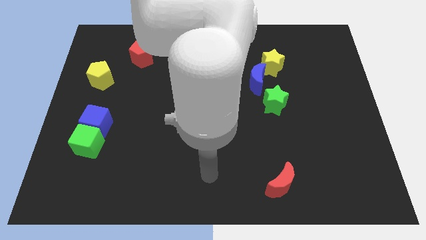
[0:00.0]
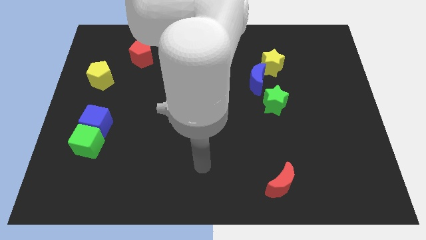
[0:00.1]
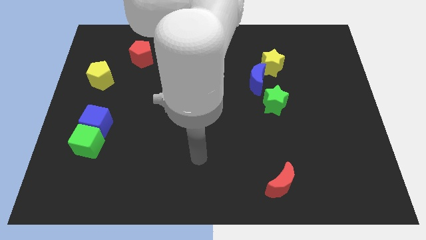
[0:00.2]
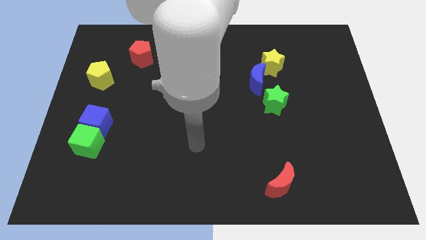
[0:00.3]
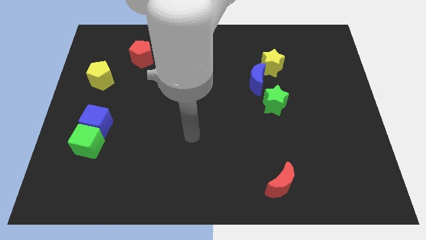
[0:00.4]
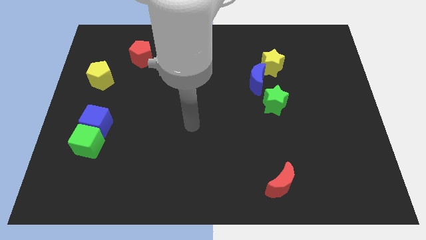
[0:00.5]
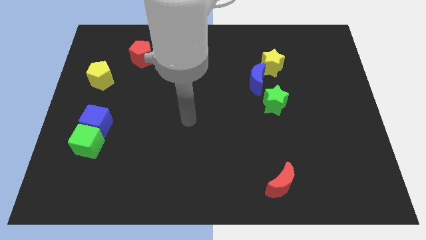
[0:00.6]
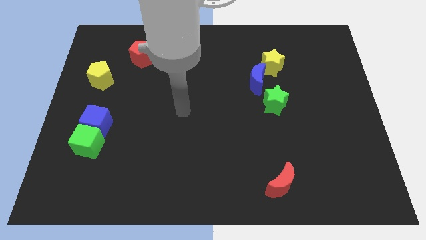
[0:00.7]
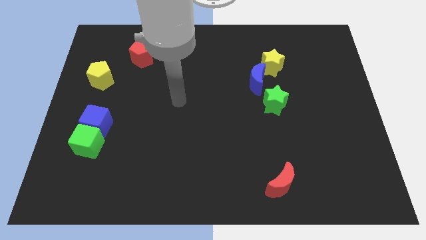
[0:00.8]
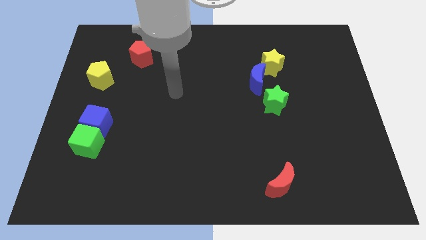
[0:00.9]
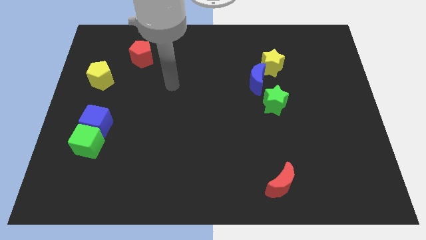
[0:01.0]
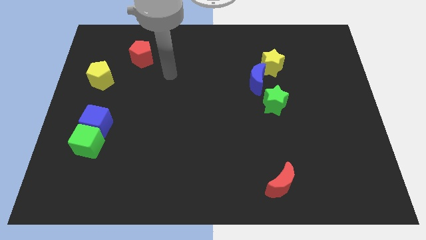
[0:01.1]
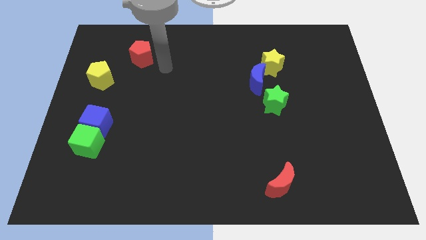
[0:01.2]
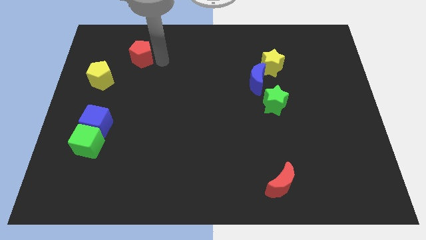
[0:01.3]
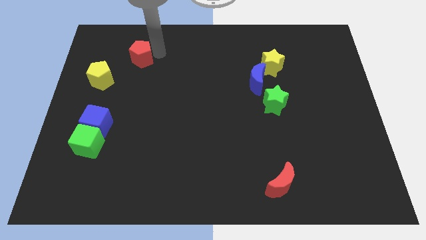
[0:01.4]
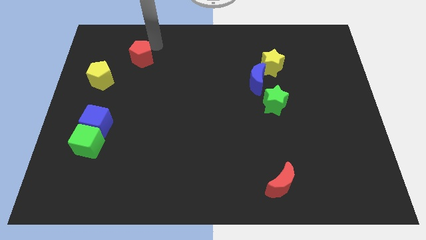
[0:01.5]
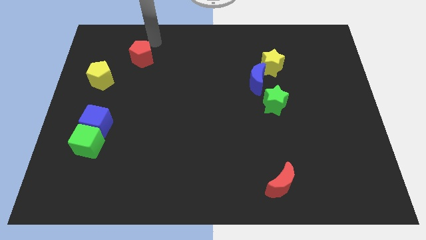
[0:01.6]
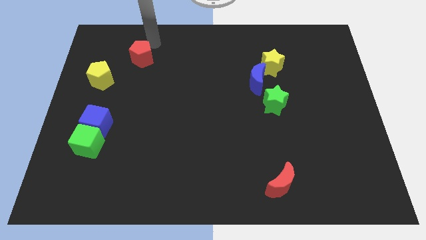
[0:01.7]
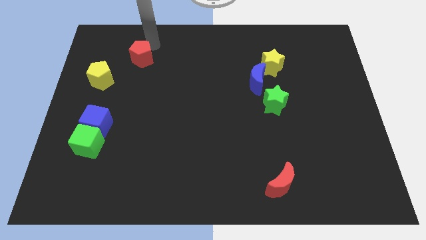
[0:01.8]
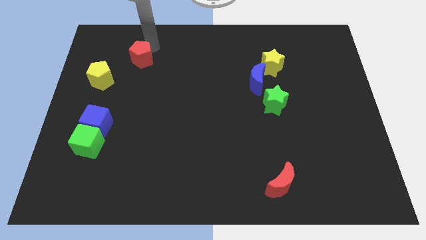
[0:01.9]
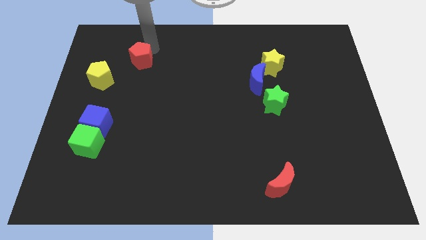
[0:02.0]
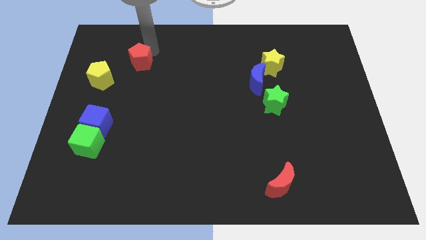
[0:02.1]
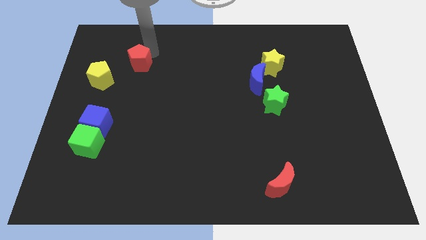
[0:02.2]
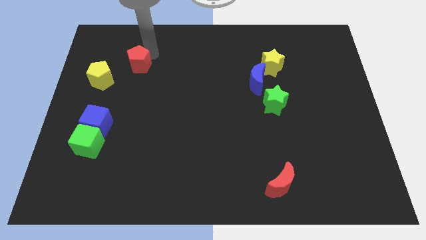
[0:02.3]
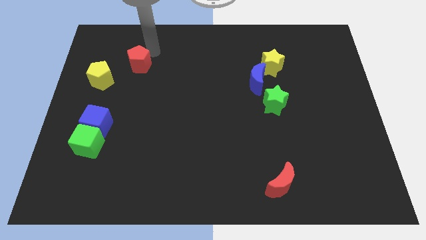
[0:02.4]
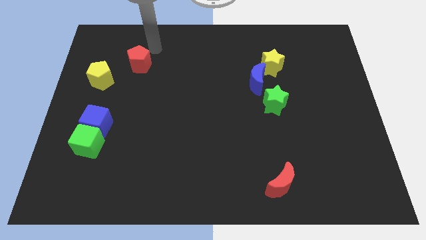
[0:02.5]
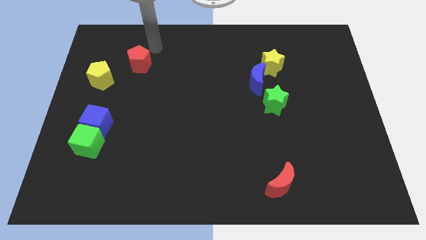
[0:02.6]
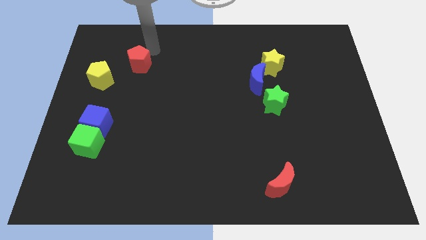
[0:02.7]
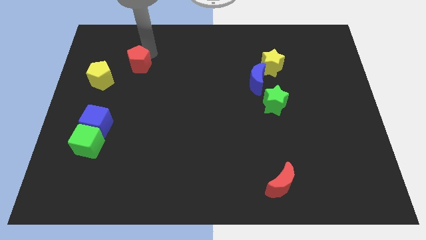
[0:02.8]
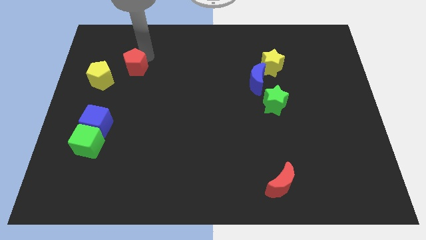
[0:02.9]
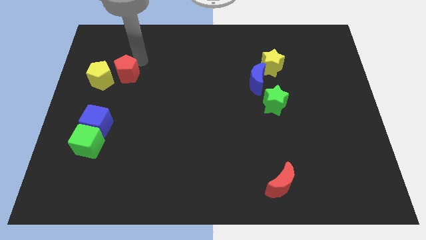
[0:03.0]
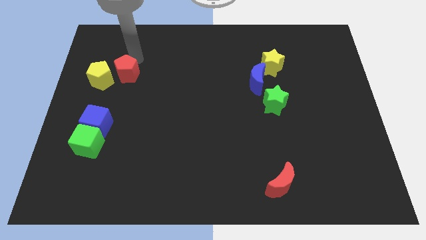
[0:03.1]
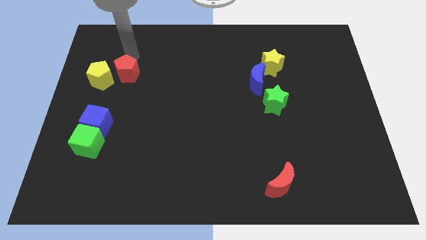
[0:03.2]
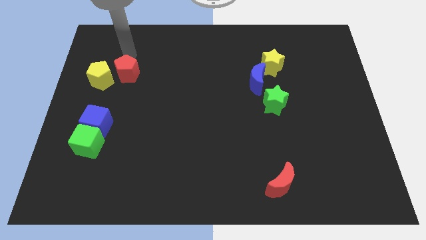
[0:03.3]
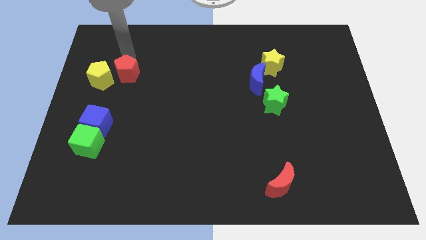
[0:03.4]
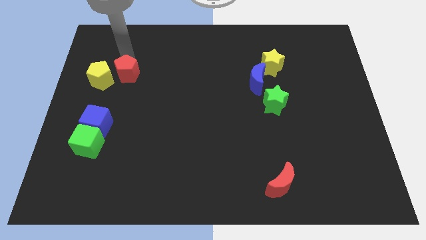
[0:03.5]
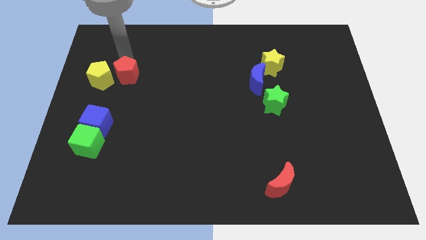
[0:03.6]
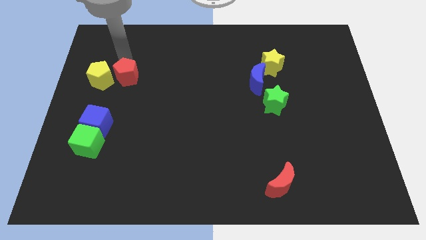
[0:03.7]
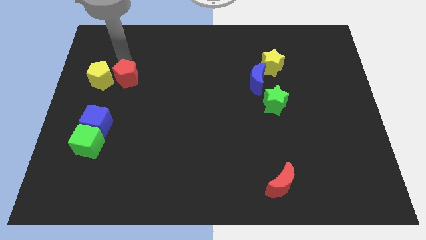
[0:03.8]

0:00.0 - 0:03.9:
move the red pentagon slightly downwards

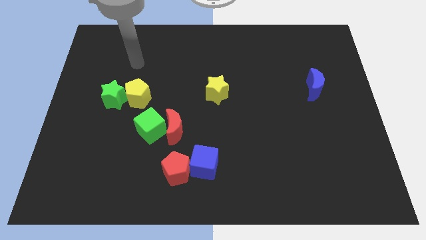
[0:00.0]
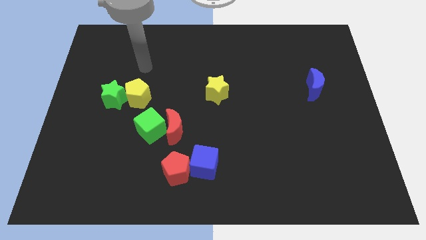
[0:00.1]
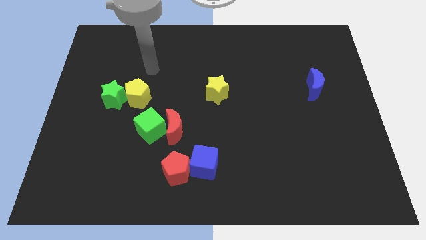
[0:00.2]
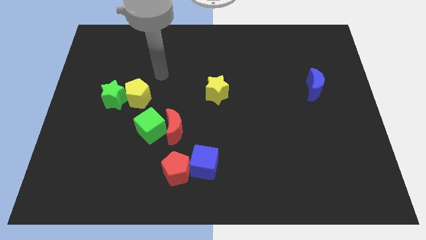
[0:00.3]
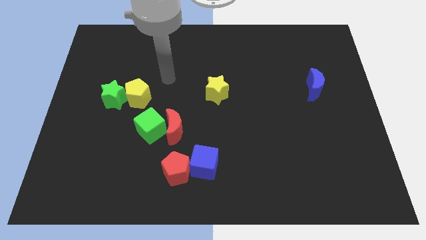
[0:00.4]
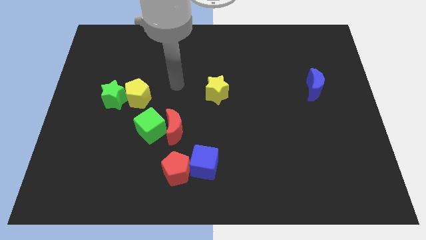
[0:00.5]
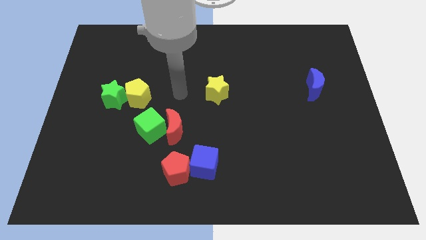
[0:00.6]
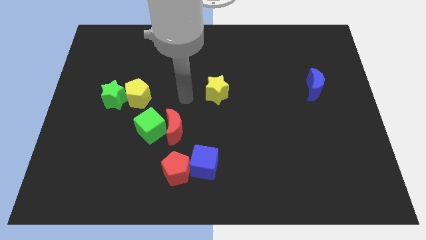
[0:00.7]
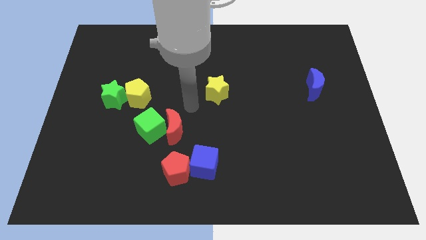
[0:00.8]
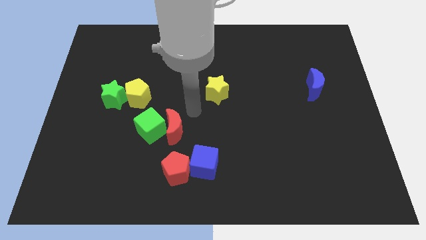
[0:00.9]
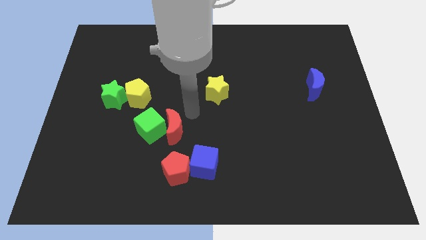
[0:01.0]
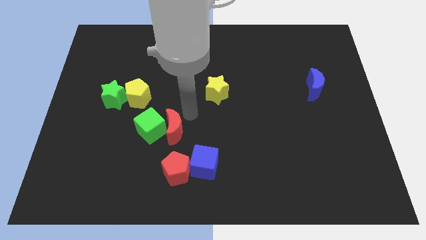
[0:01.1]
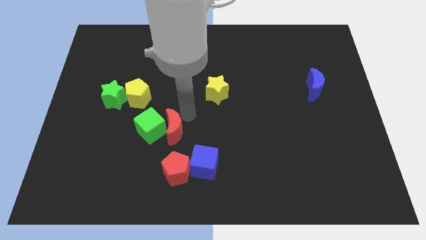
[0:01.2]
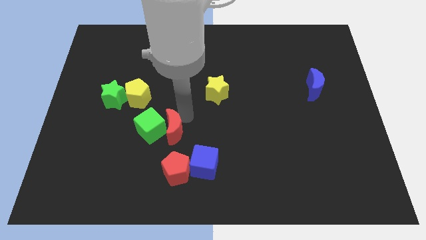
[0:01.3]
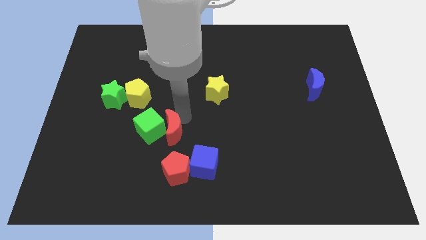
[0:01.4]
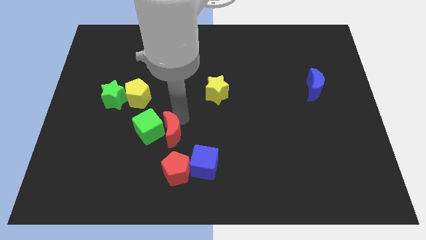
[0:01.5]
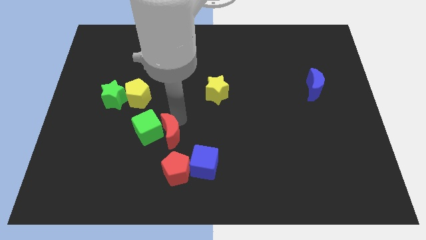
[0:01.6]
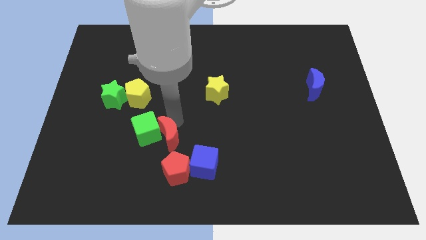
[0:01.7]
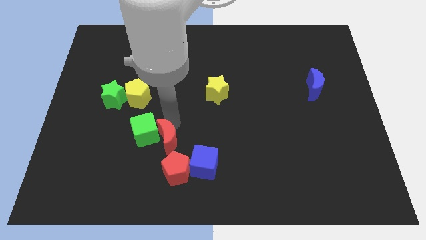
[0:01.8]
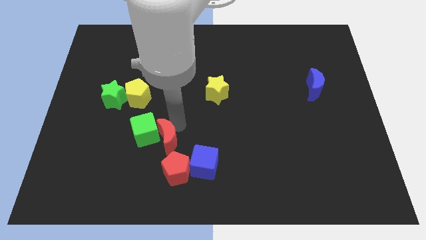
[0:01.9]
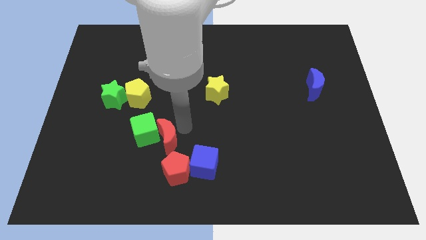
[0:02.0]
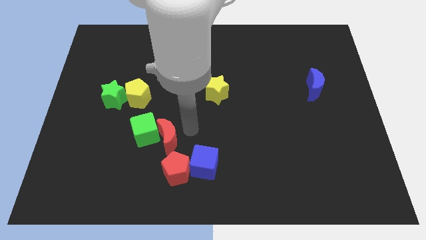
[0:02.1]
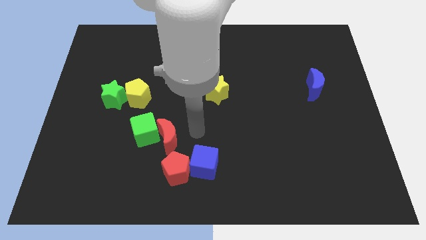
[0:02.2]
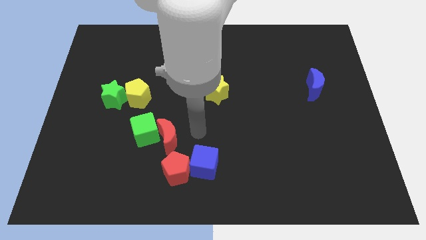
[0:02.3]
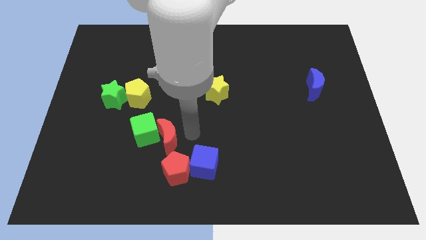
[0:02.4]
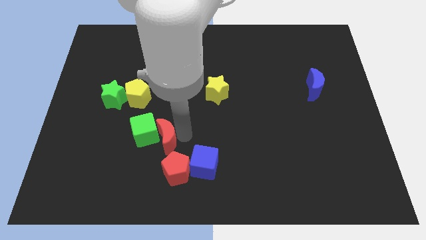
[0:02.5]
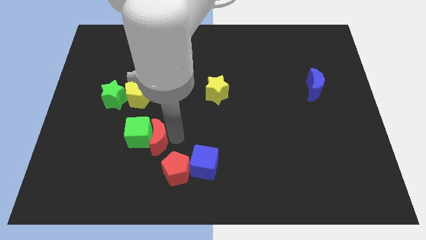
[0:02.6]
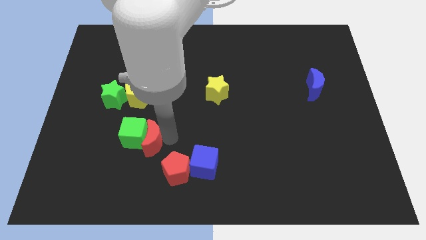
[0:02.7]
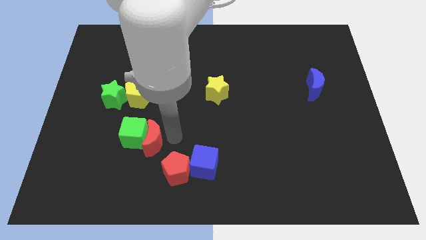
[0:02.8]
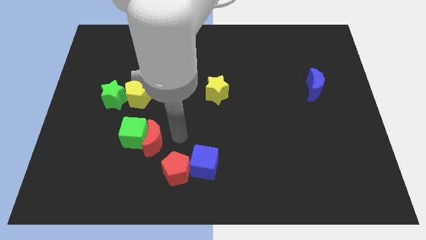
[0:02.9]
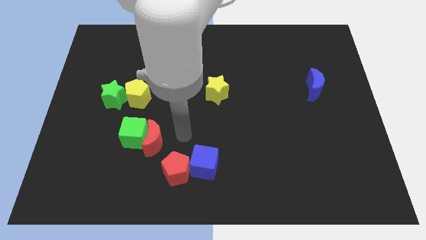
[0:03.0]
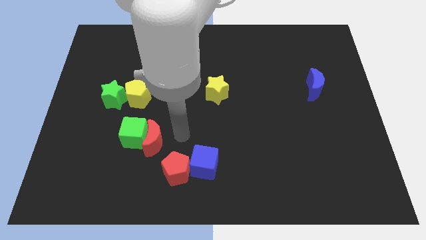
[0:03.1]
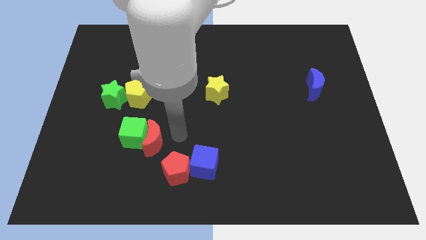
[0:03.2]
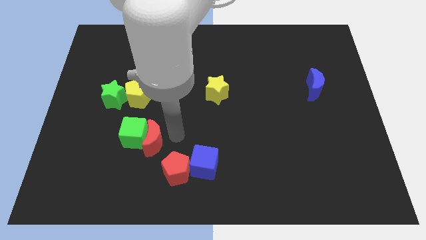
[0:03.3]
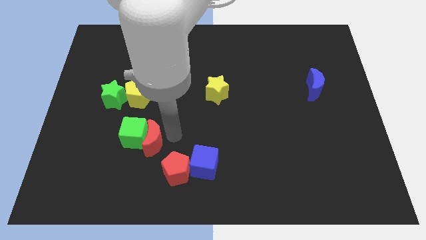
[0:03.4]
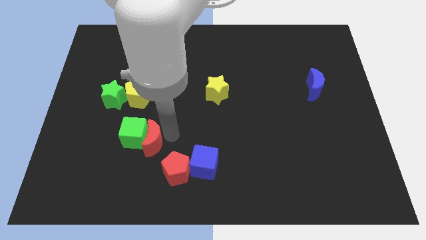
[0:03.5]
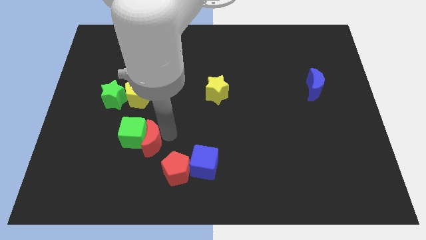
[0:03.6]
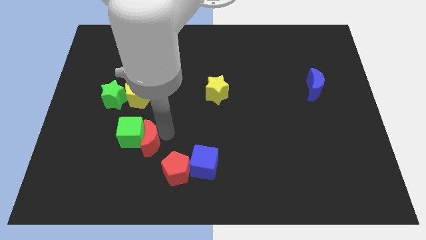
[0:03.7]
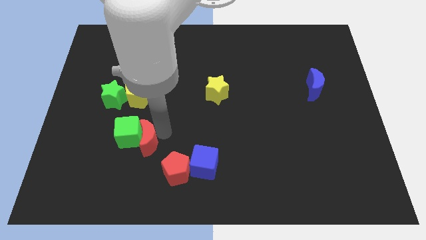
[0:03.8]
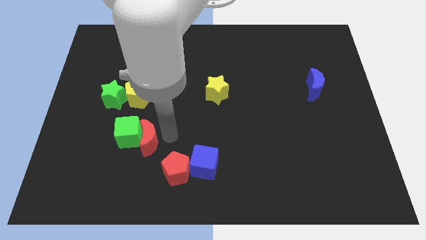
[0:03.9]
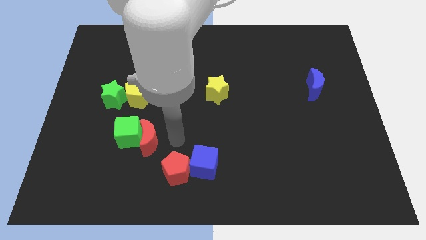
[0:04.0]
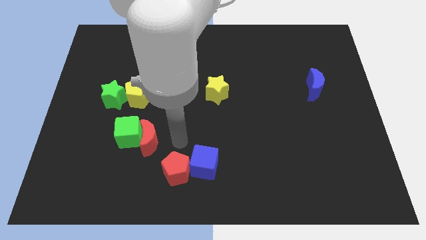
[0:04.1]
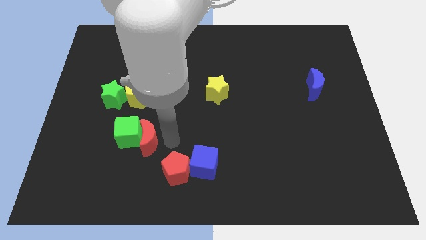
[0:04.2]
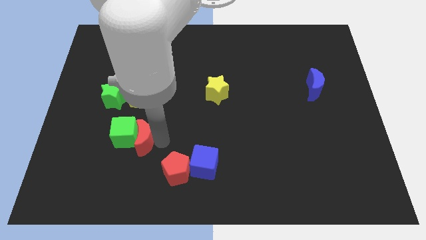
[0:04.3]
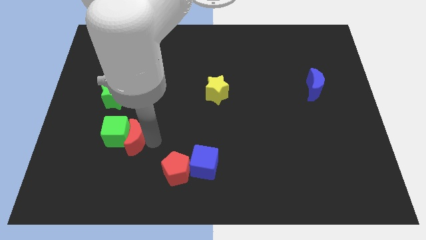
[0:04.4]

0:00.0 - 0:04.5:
slightly push the red moon left
